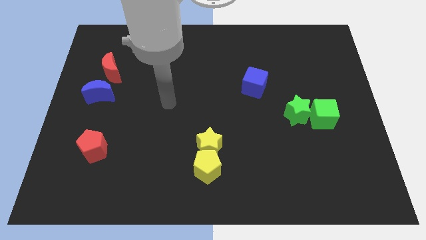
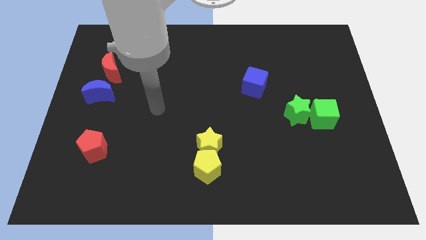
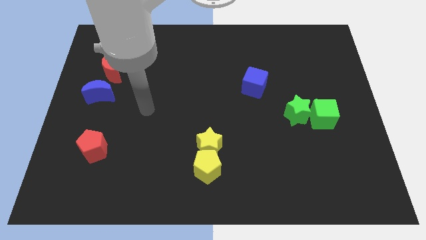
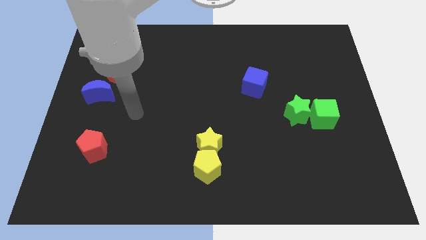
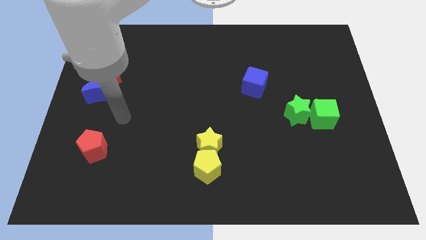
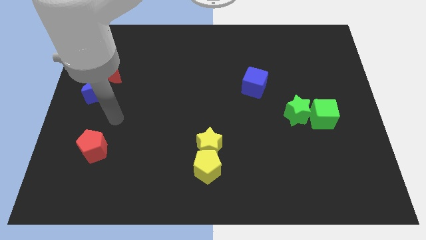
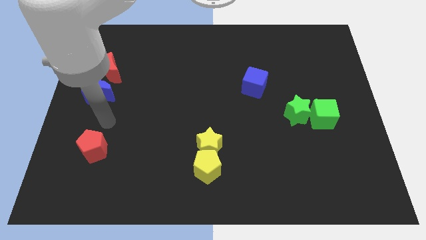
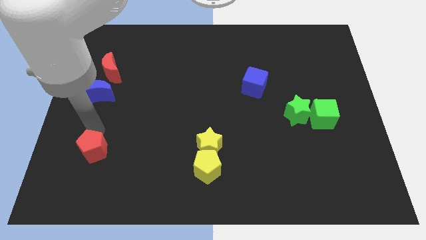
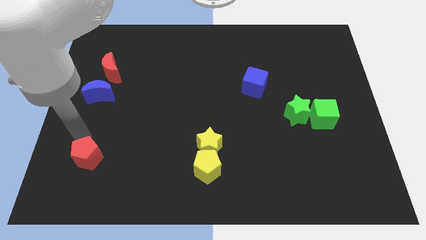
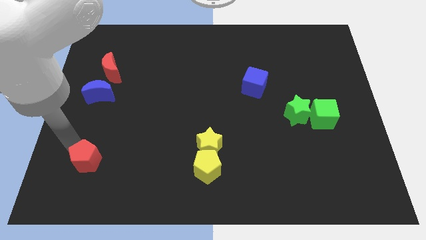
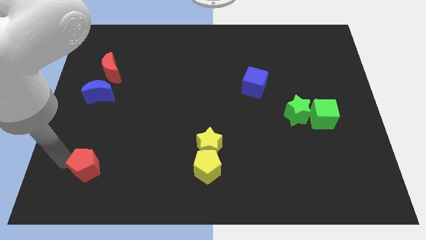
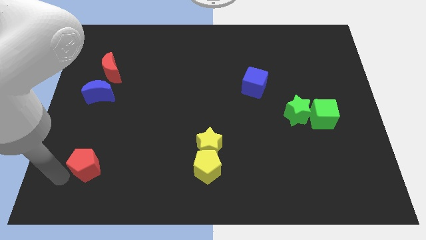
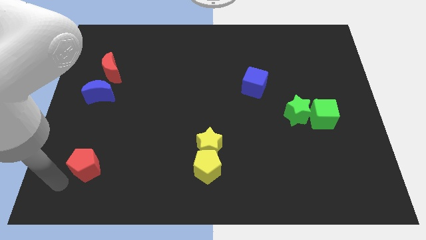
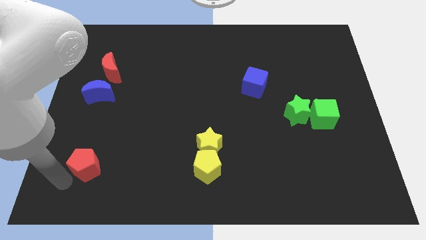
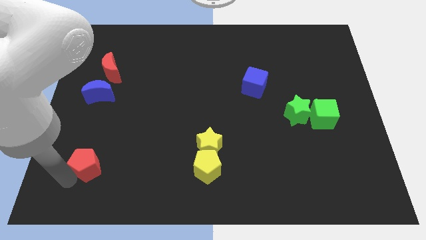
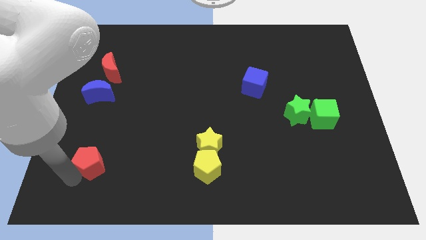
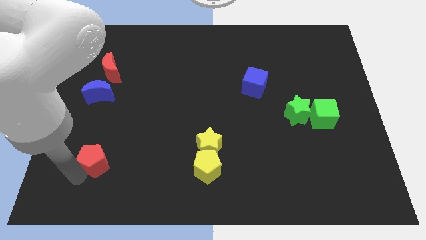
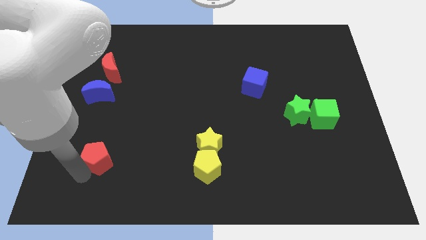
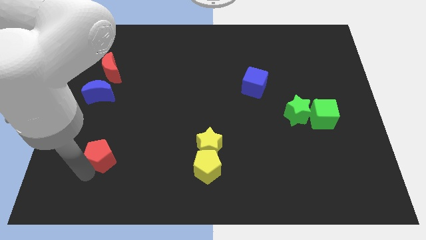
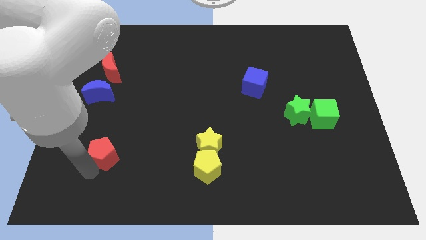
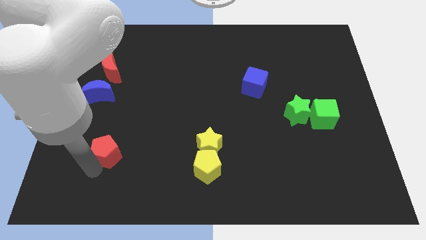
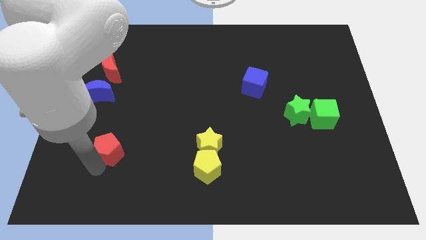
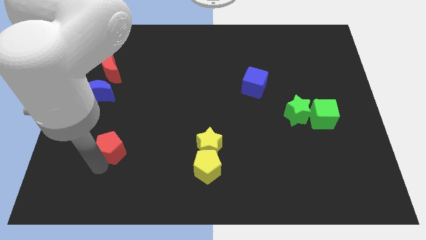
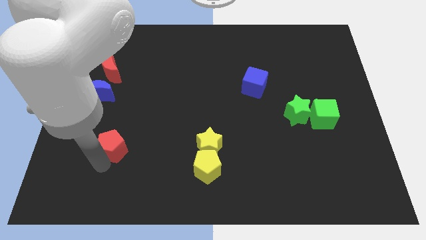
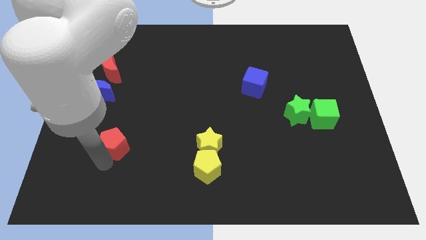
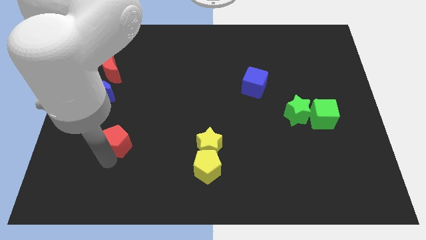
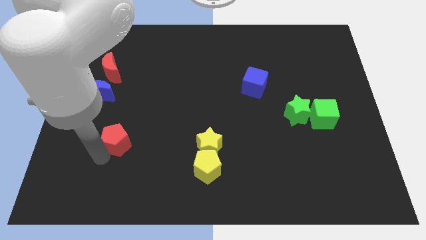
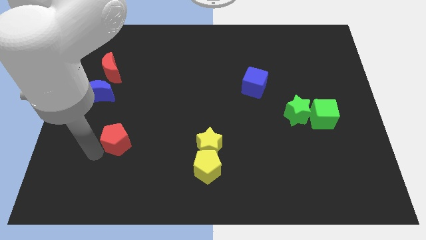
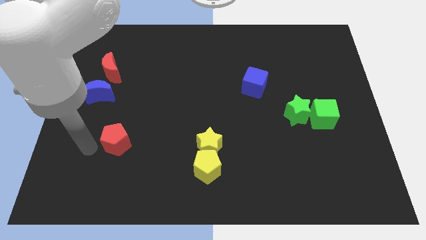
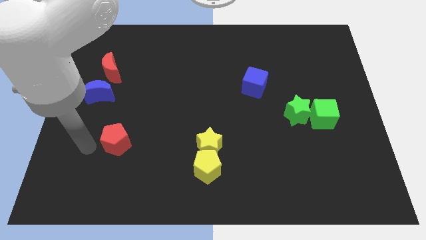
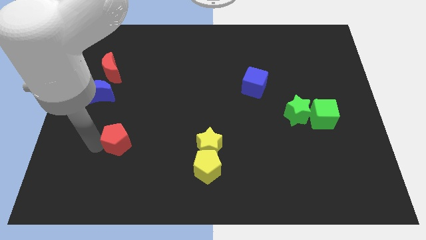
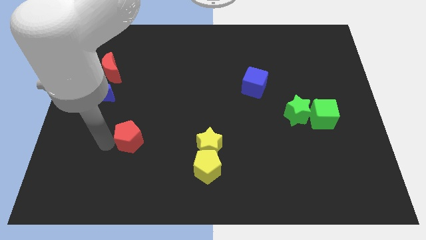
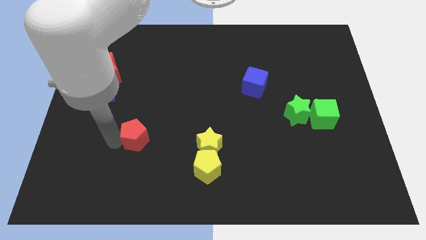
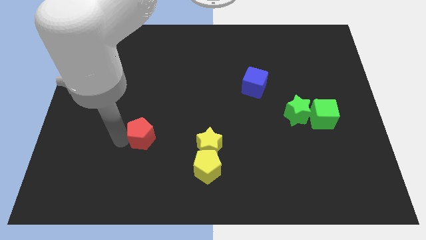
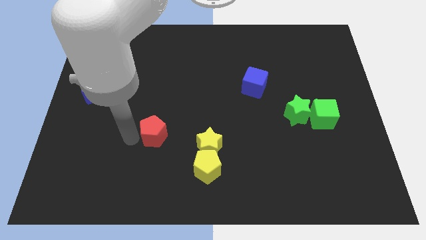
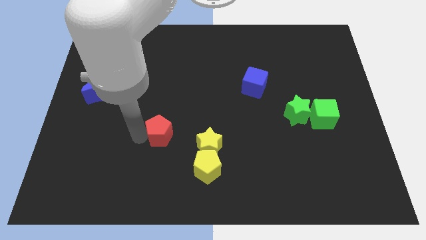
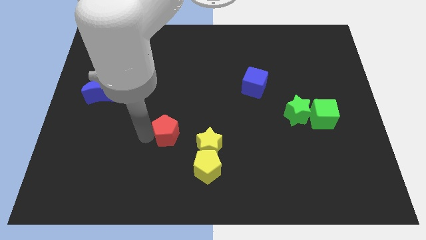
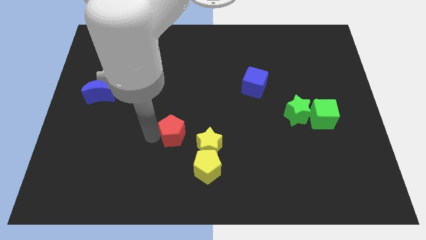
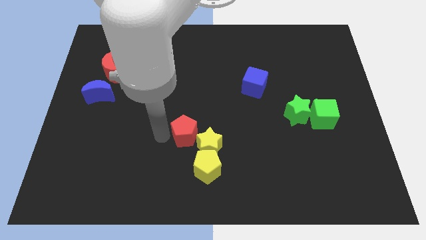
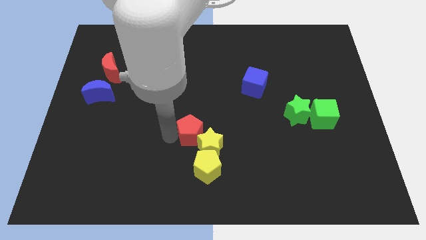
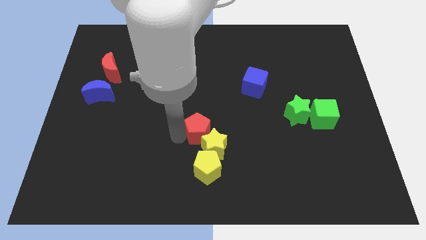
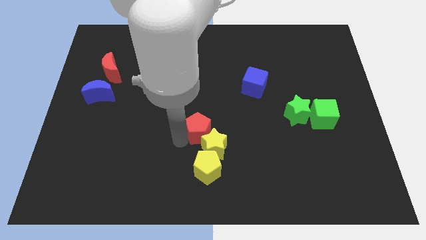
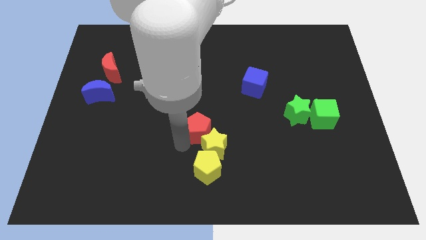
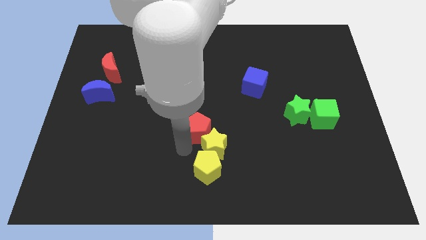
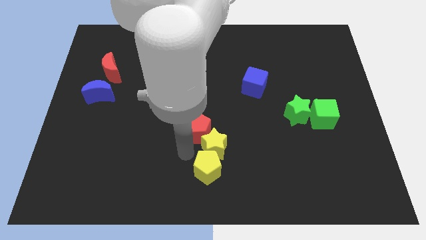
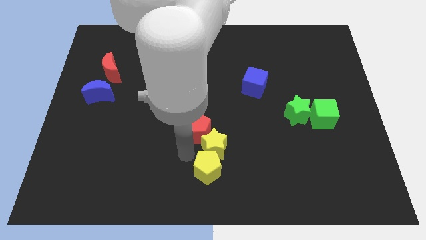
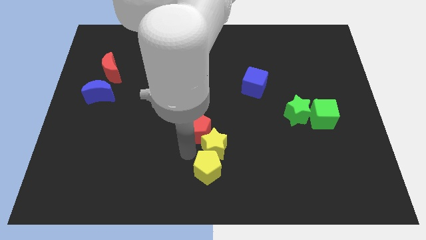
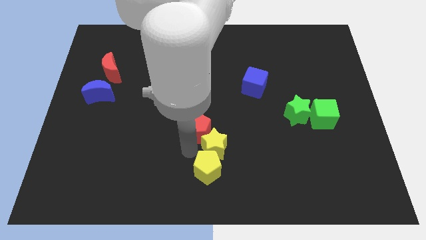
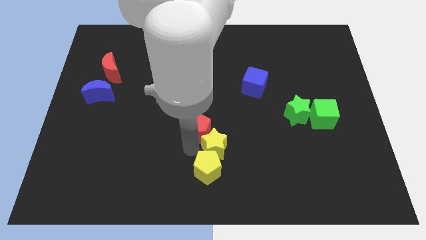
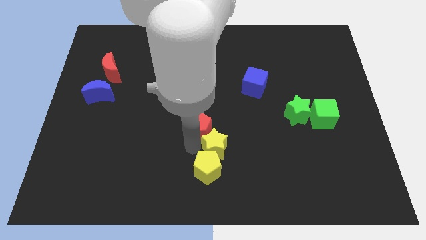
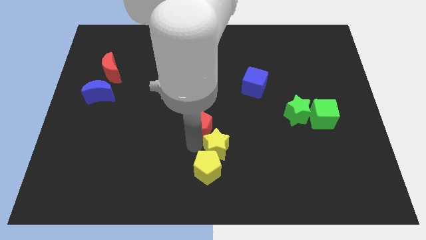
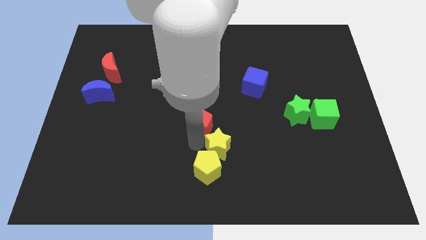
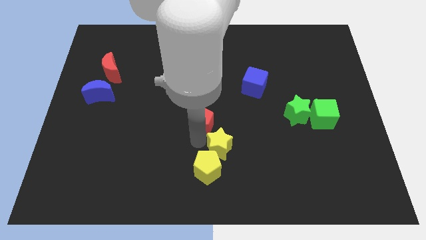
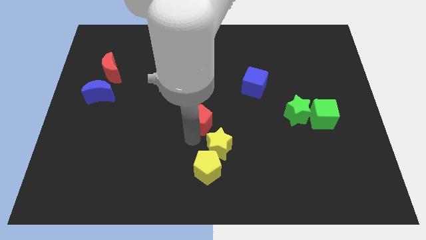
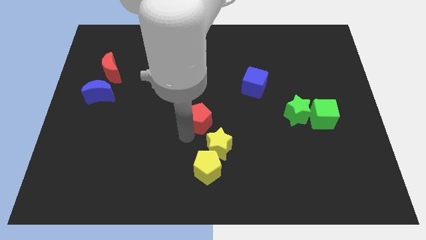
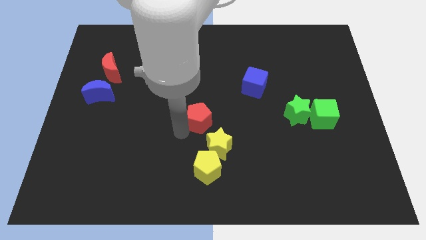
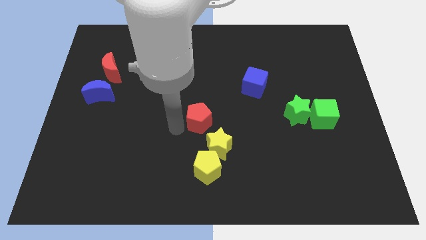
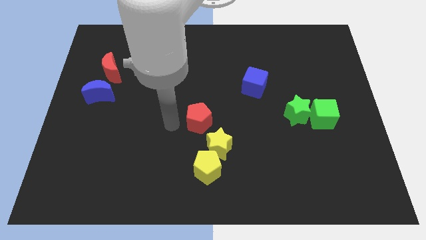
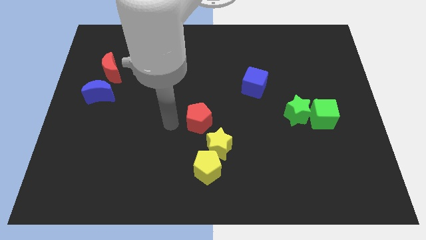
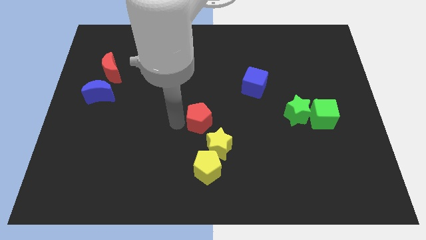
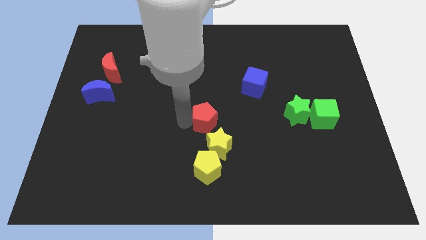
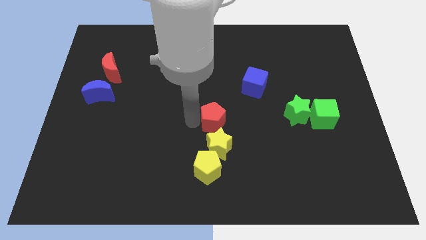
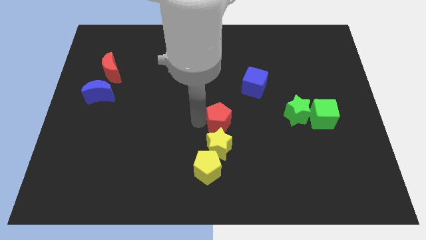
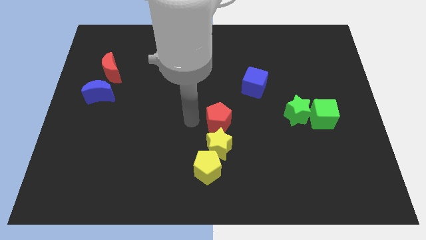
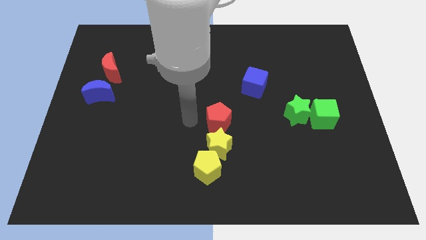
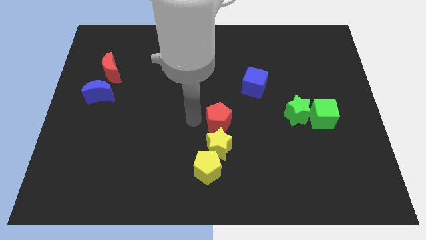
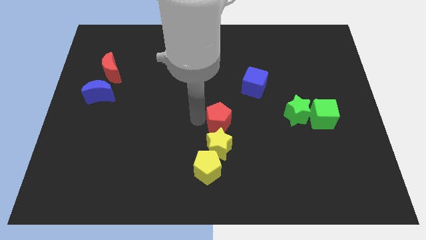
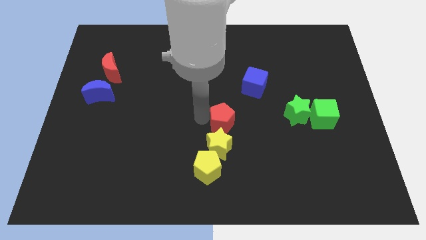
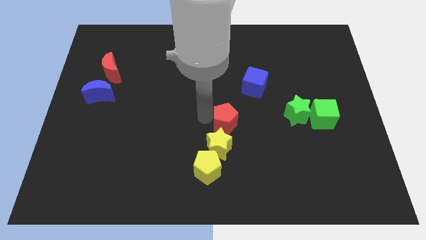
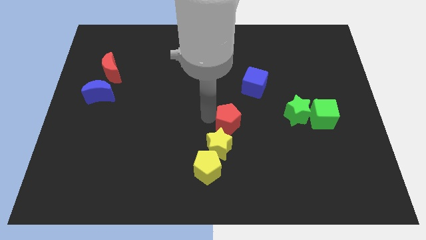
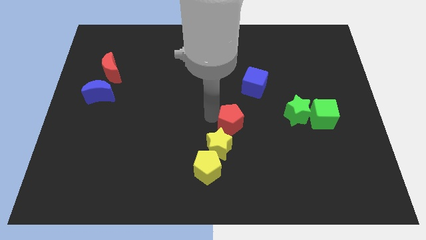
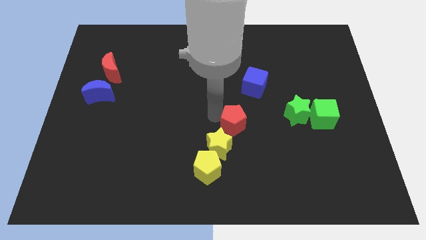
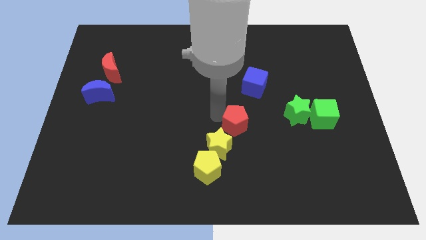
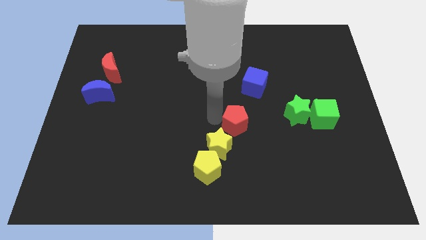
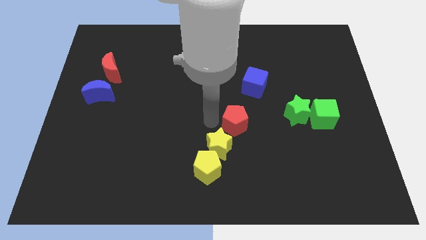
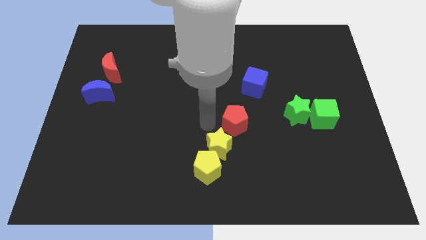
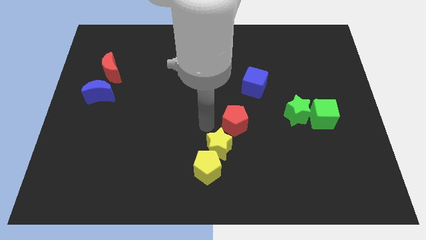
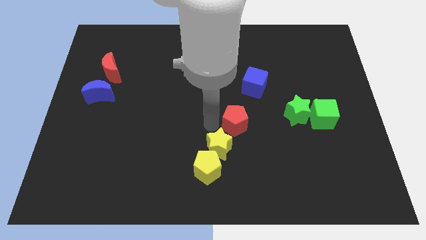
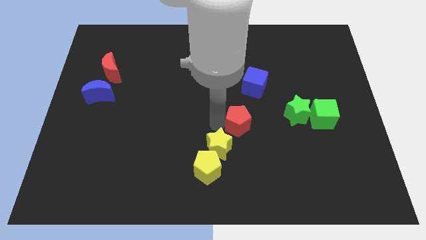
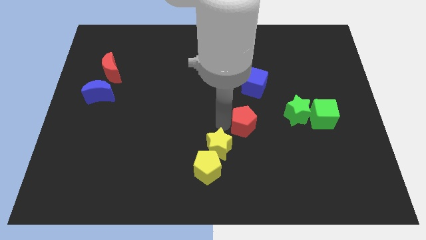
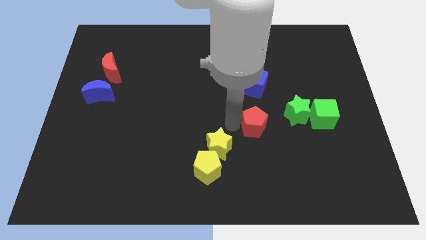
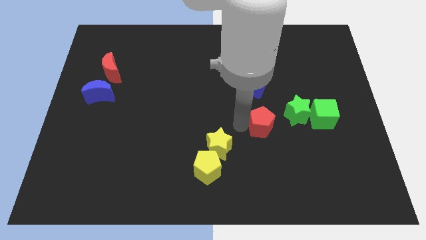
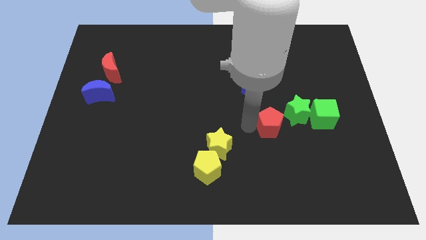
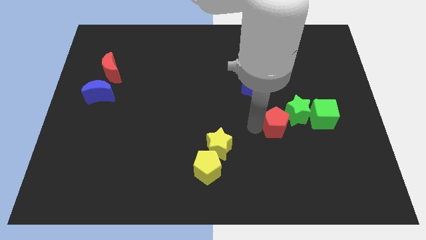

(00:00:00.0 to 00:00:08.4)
put the red pentagon next to the green star
